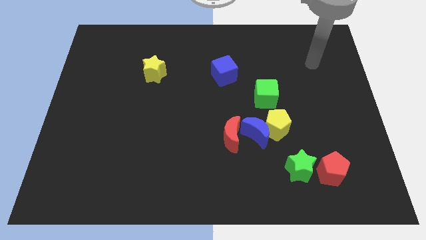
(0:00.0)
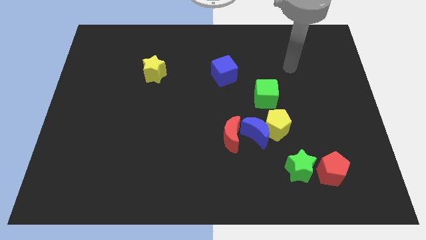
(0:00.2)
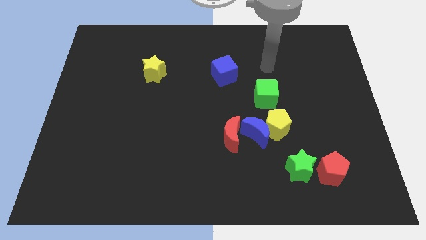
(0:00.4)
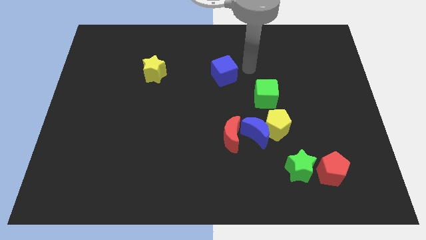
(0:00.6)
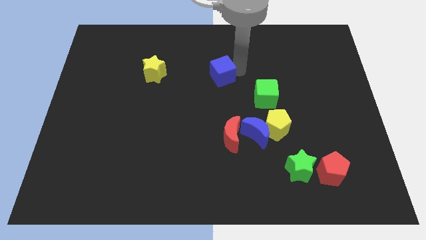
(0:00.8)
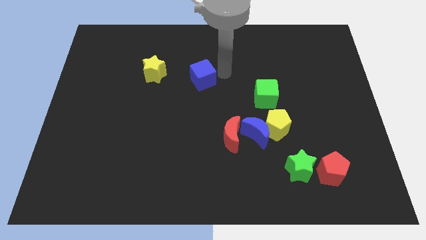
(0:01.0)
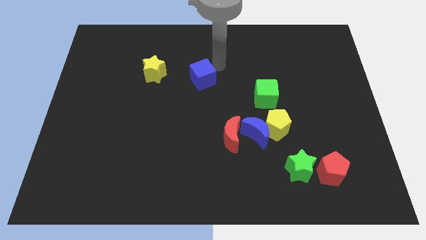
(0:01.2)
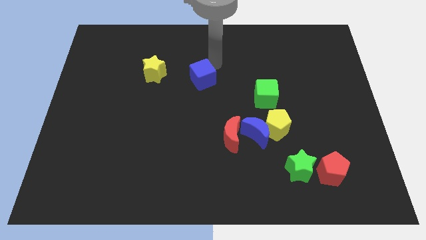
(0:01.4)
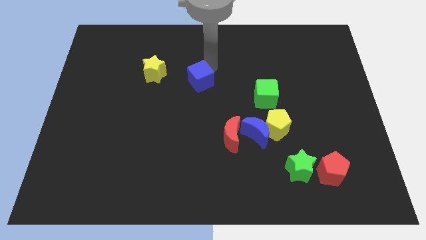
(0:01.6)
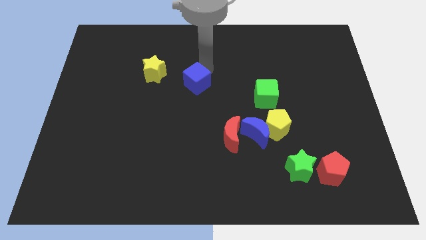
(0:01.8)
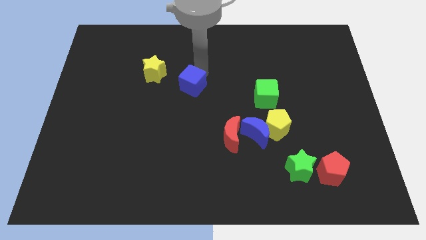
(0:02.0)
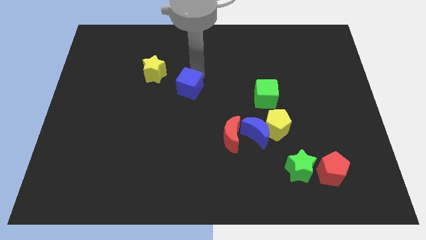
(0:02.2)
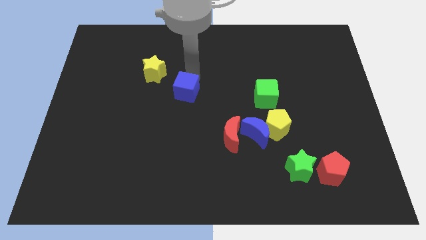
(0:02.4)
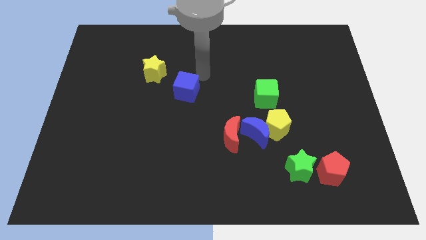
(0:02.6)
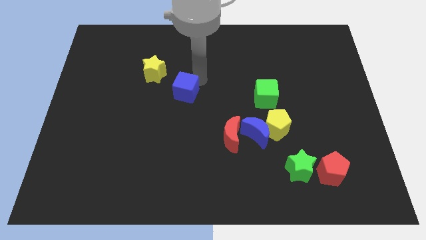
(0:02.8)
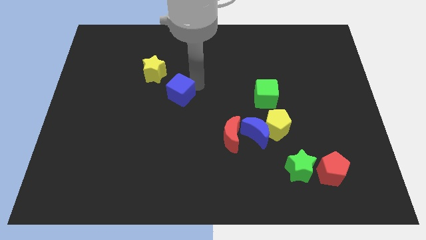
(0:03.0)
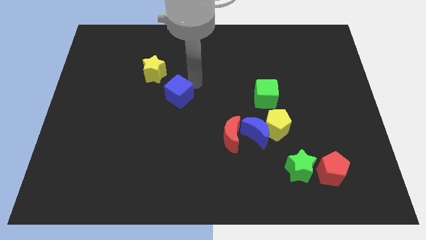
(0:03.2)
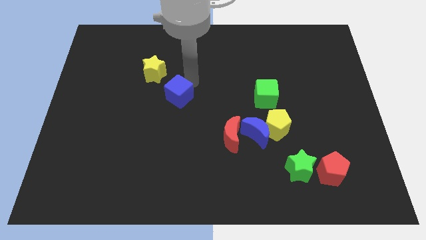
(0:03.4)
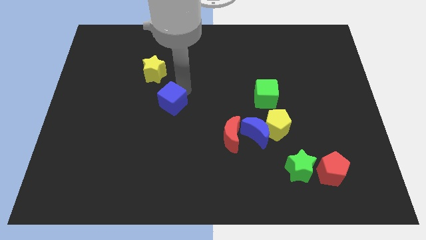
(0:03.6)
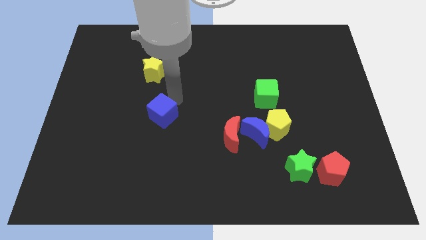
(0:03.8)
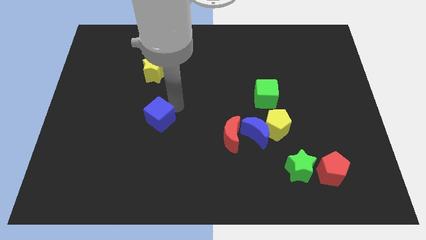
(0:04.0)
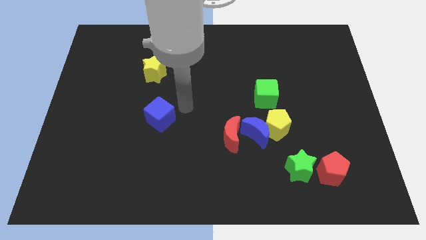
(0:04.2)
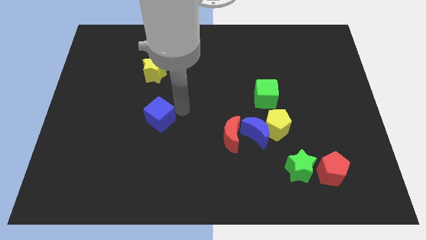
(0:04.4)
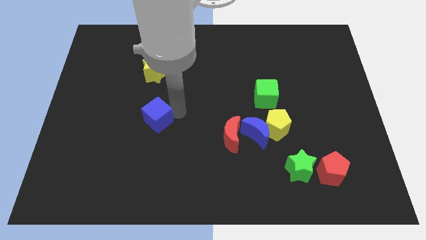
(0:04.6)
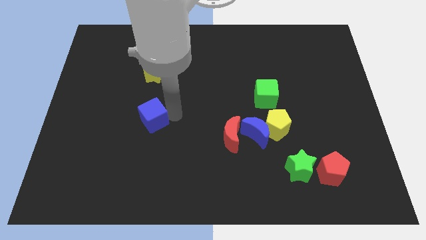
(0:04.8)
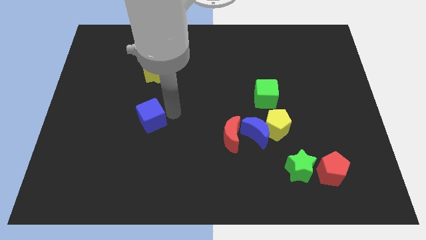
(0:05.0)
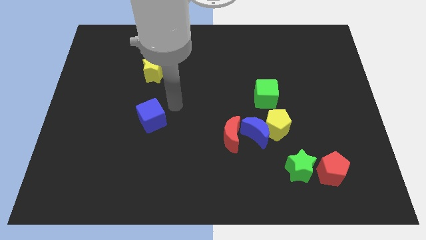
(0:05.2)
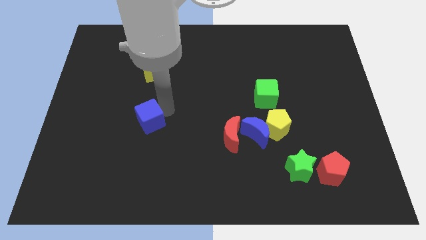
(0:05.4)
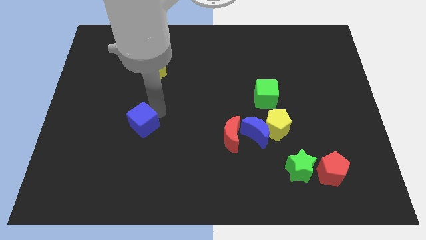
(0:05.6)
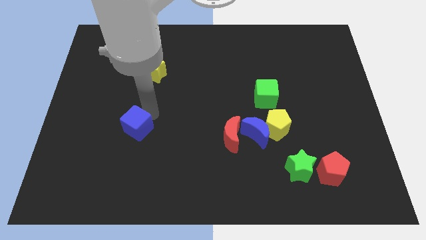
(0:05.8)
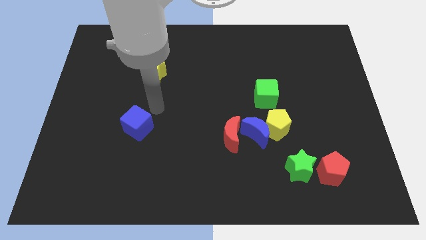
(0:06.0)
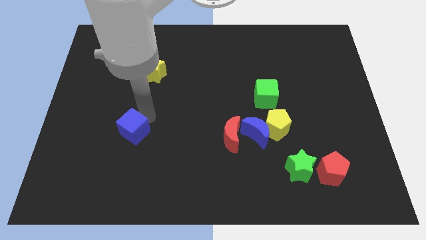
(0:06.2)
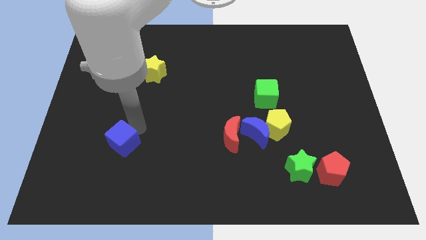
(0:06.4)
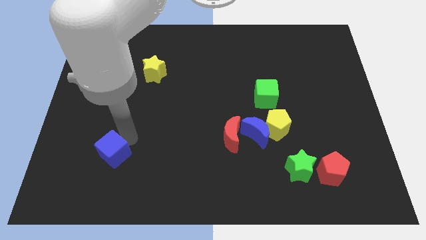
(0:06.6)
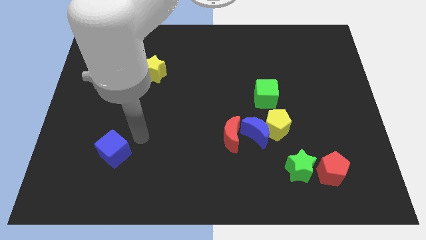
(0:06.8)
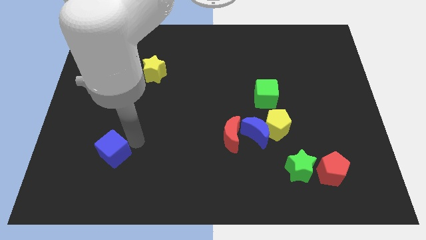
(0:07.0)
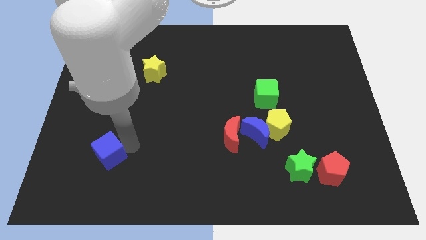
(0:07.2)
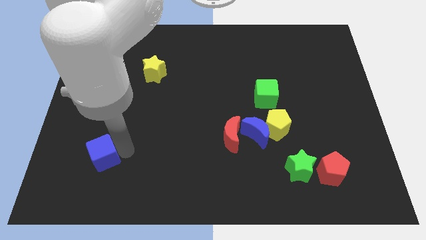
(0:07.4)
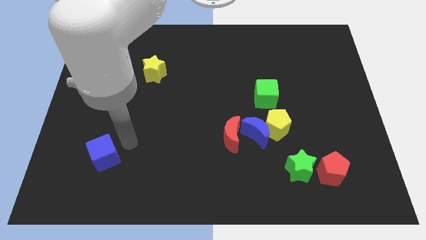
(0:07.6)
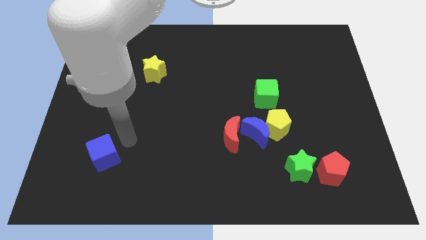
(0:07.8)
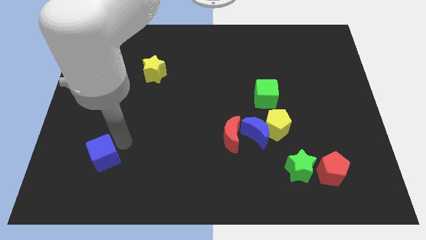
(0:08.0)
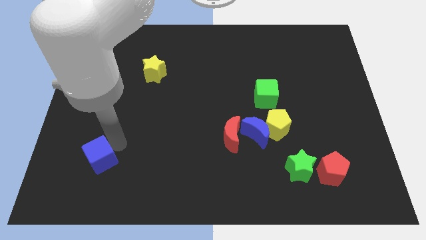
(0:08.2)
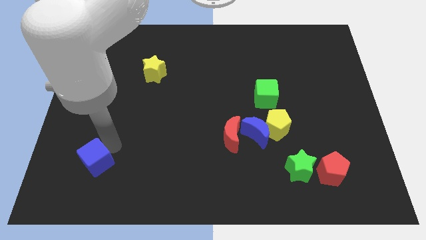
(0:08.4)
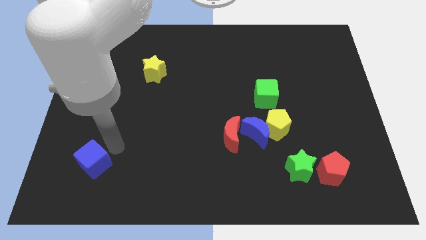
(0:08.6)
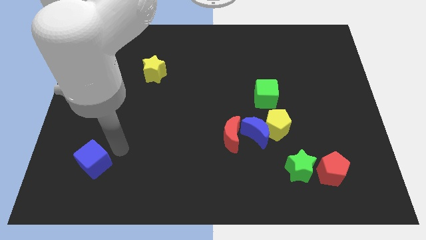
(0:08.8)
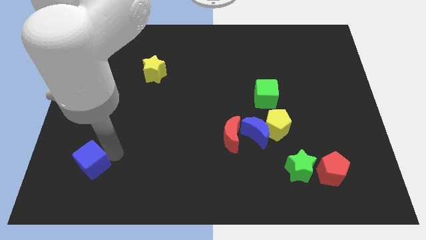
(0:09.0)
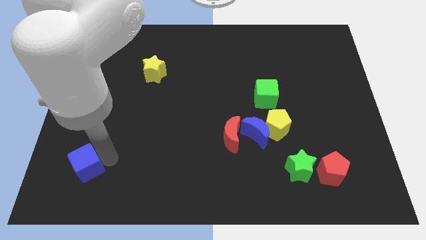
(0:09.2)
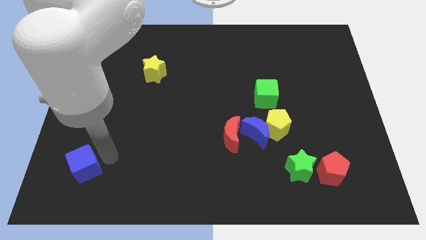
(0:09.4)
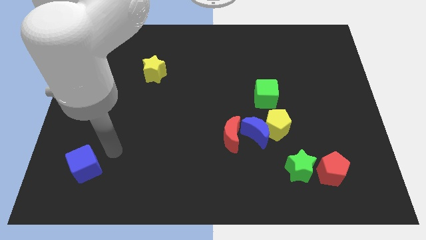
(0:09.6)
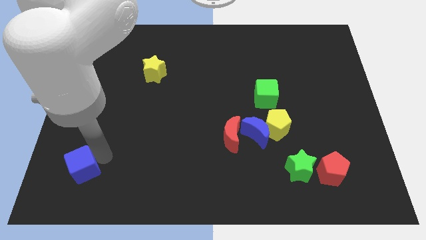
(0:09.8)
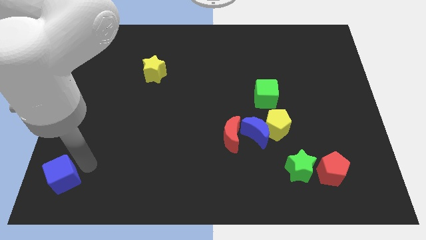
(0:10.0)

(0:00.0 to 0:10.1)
push the blue cube to the bottom left

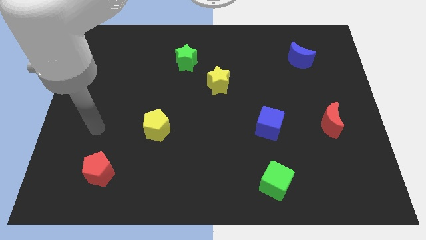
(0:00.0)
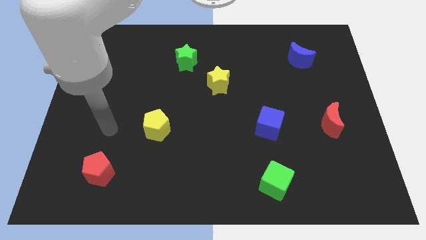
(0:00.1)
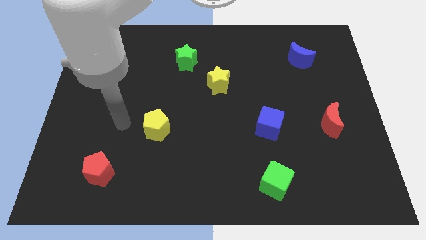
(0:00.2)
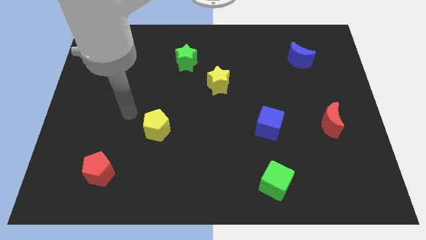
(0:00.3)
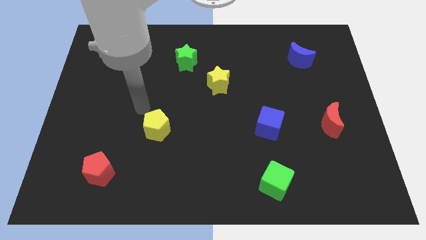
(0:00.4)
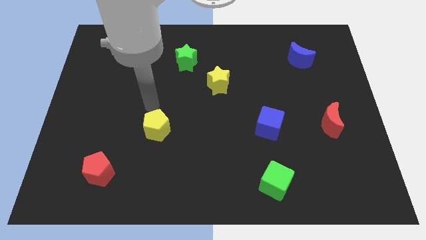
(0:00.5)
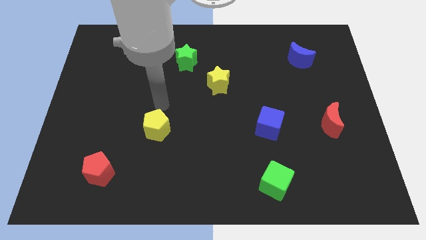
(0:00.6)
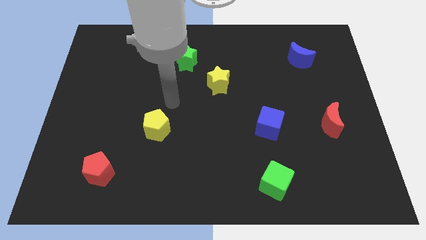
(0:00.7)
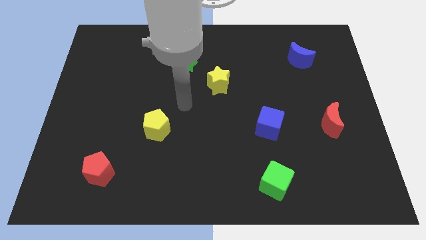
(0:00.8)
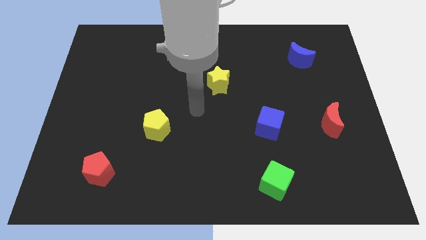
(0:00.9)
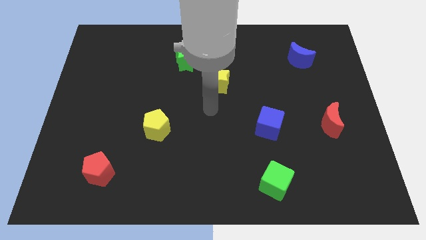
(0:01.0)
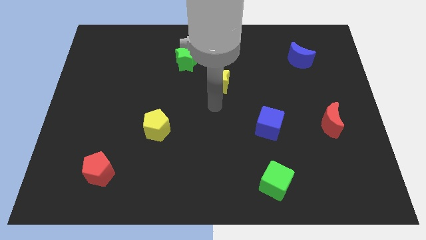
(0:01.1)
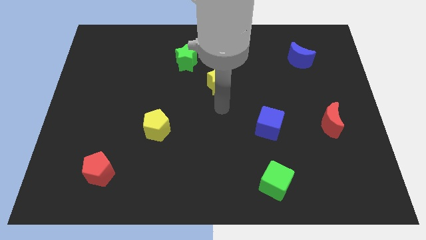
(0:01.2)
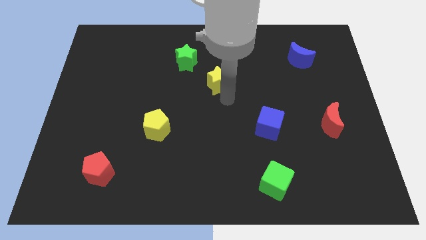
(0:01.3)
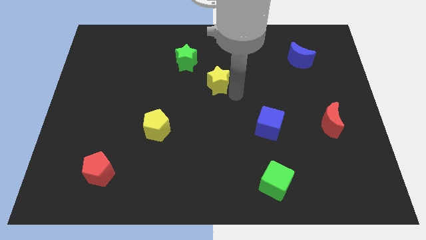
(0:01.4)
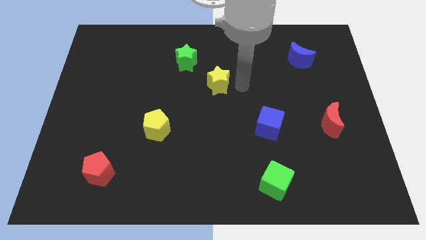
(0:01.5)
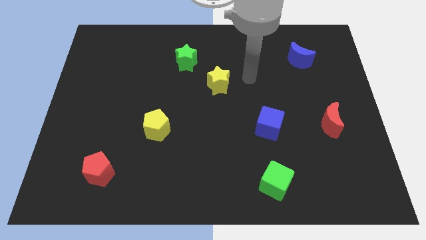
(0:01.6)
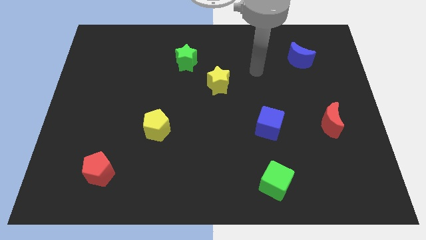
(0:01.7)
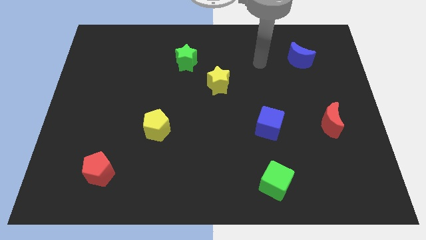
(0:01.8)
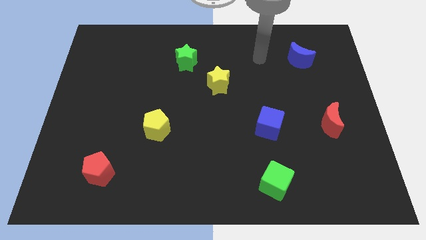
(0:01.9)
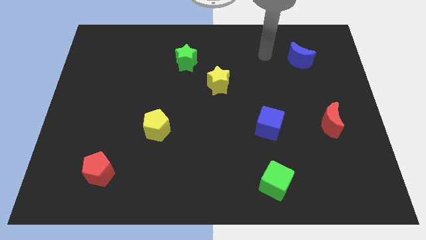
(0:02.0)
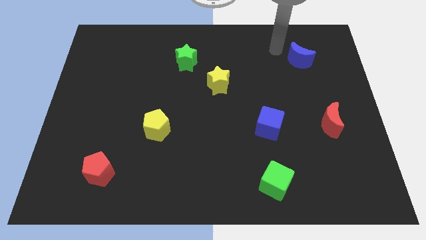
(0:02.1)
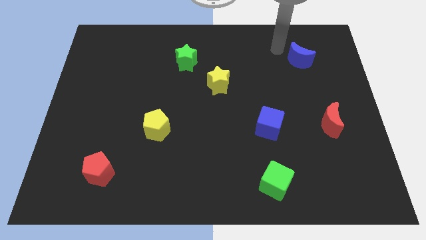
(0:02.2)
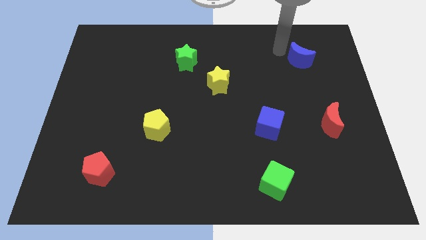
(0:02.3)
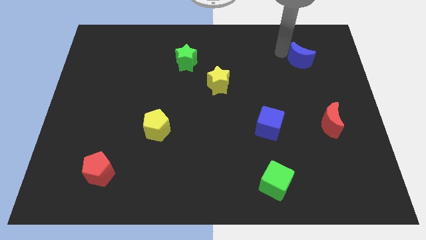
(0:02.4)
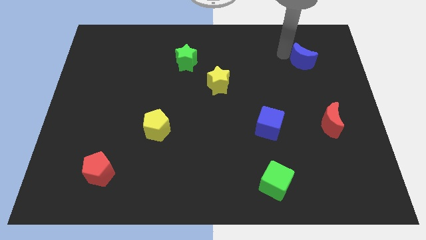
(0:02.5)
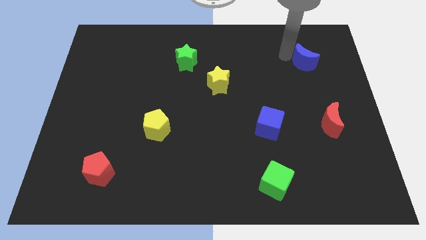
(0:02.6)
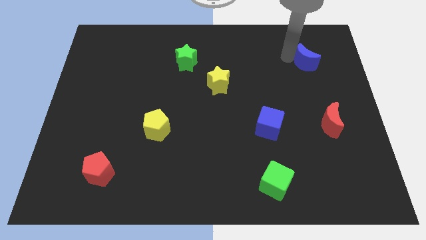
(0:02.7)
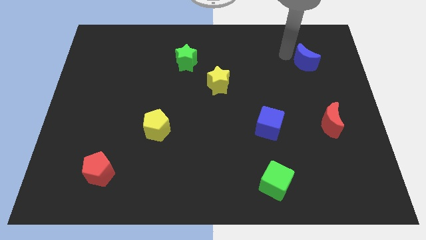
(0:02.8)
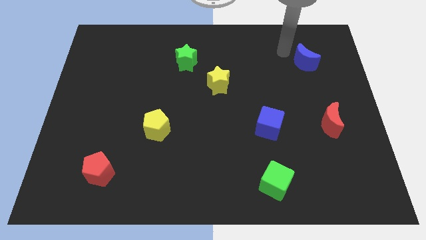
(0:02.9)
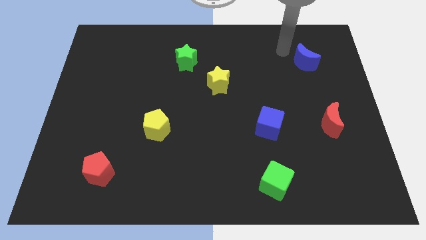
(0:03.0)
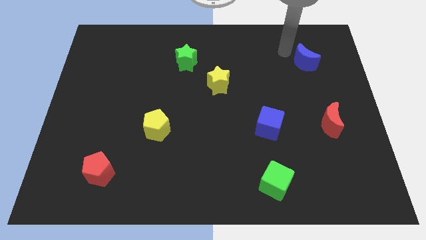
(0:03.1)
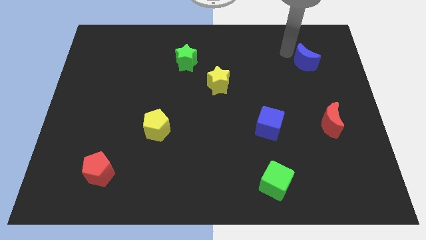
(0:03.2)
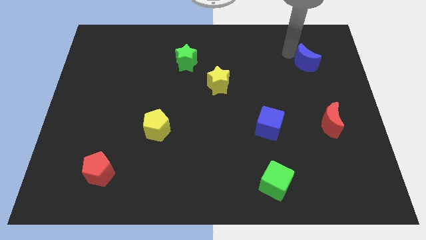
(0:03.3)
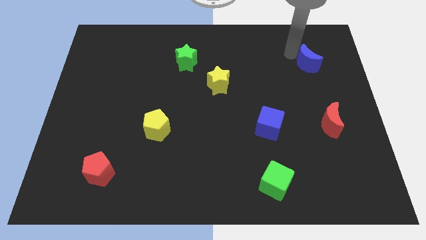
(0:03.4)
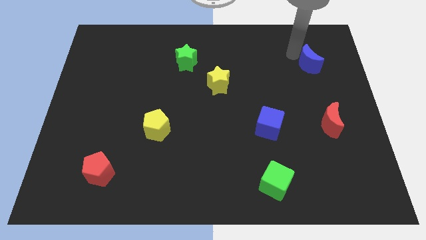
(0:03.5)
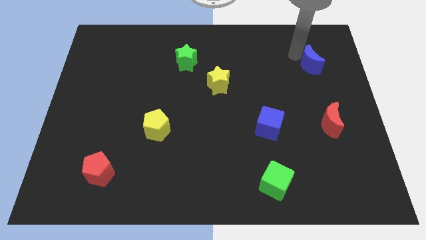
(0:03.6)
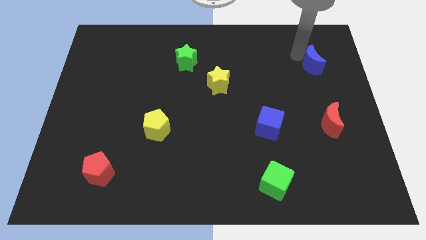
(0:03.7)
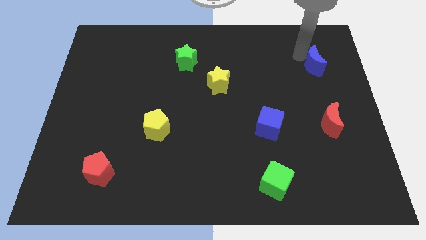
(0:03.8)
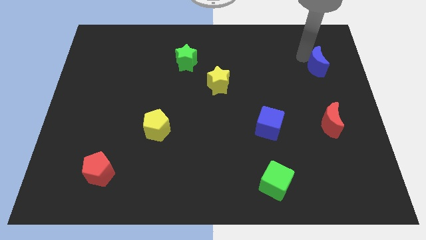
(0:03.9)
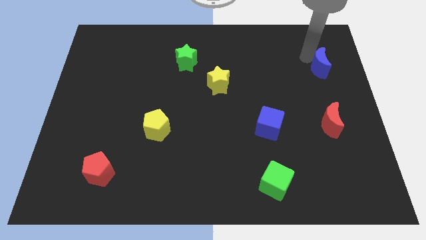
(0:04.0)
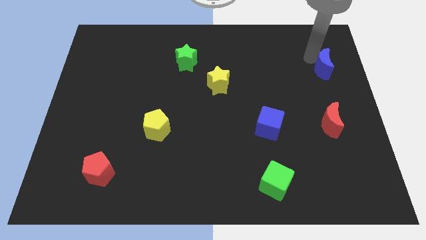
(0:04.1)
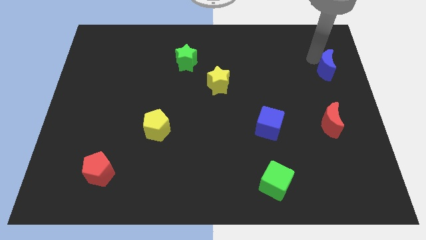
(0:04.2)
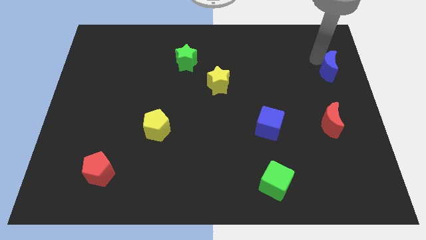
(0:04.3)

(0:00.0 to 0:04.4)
put the blue moon to the center right
